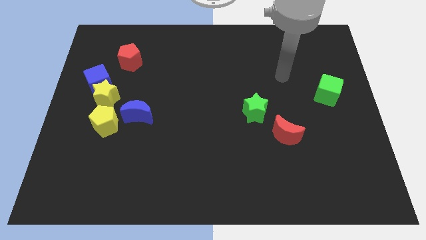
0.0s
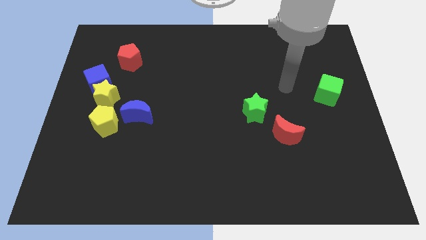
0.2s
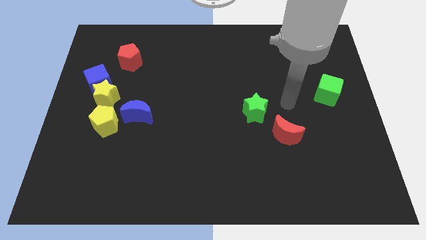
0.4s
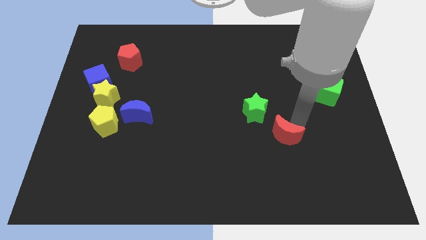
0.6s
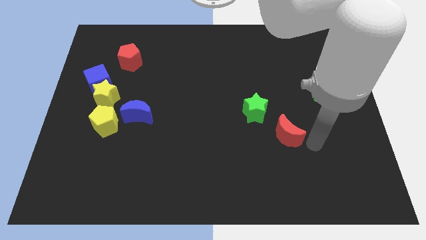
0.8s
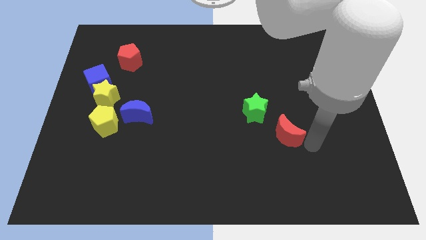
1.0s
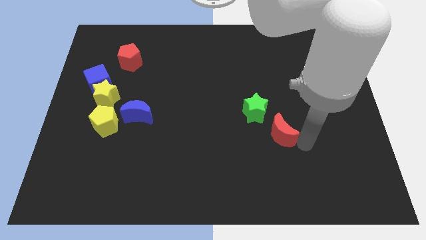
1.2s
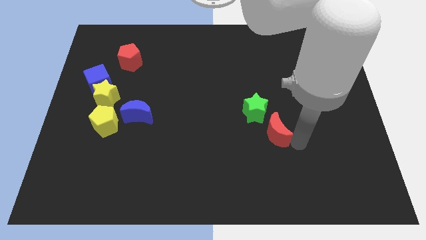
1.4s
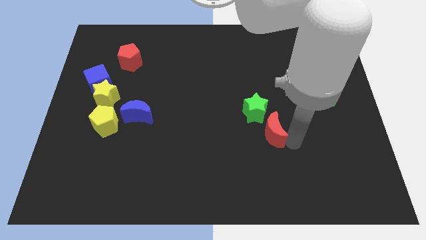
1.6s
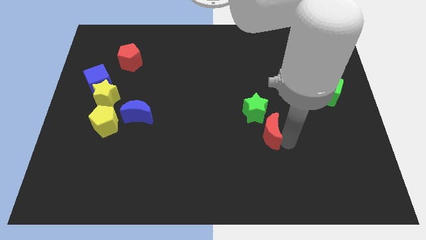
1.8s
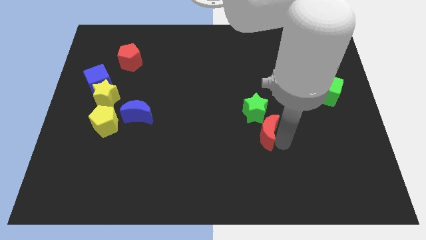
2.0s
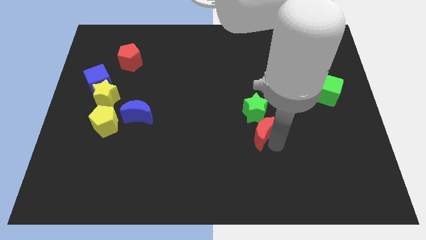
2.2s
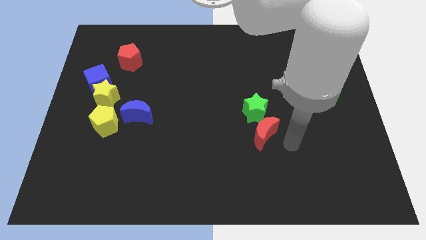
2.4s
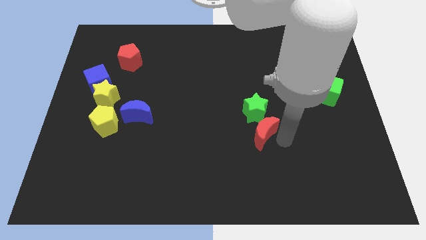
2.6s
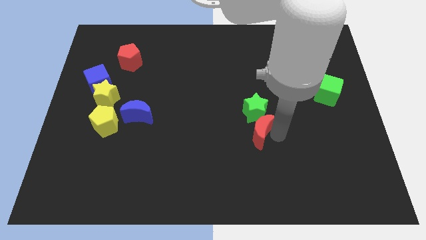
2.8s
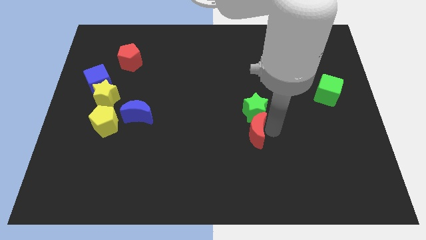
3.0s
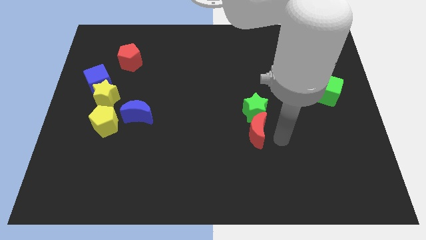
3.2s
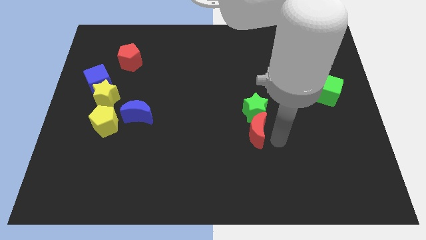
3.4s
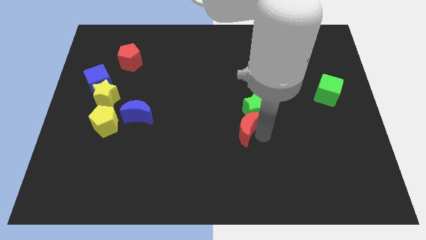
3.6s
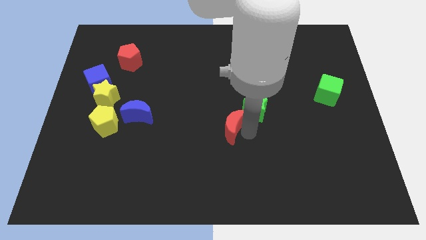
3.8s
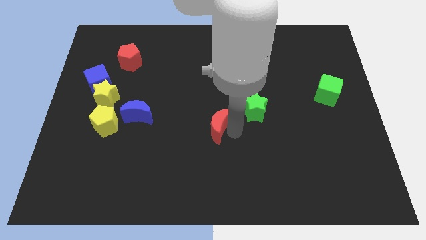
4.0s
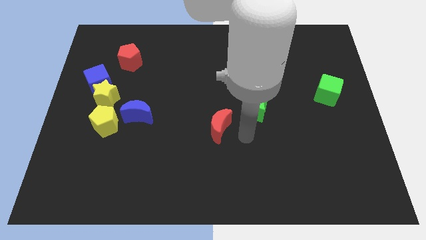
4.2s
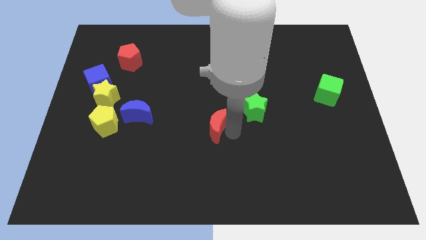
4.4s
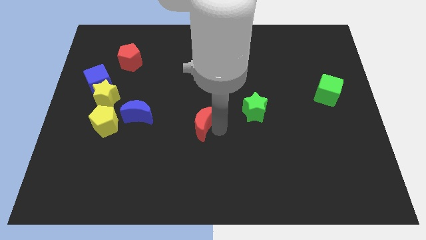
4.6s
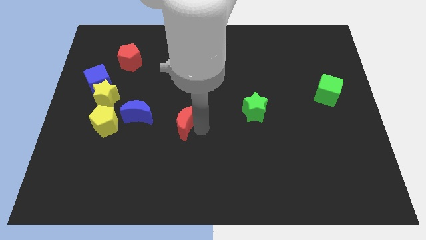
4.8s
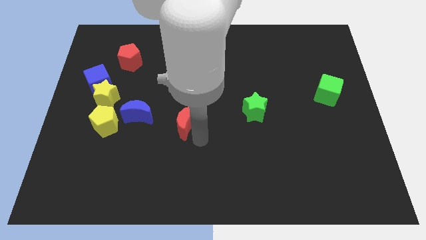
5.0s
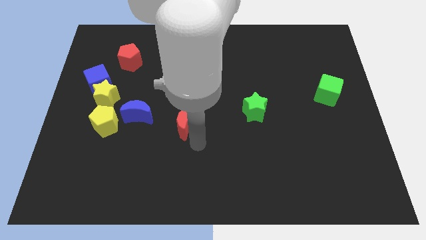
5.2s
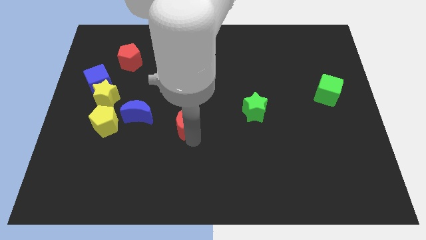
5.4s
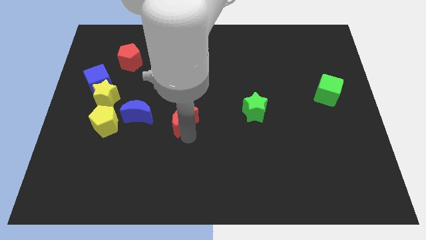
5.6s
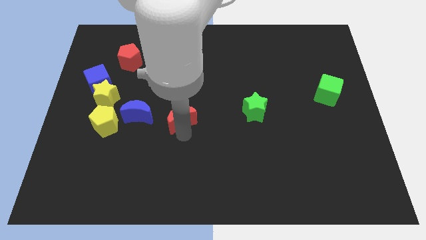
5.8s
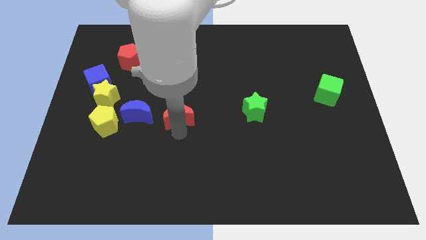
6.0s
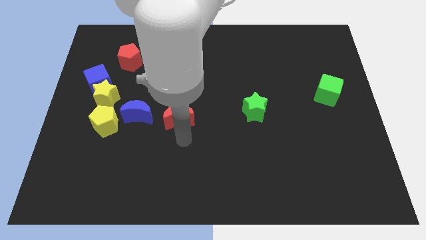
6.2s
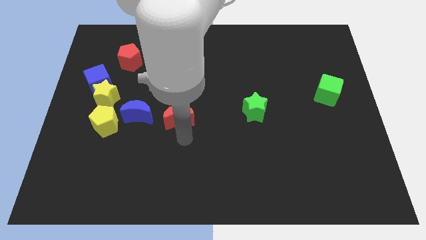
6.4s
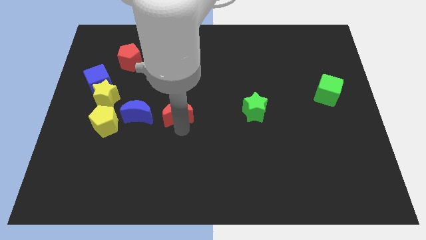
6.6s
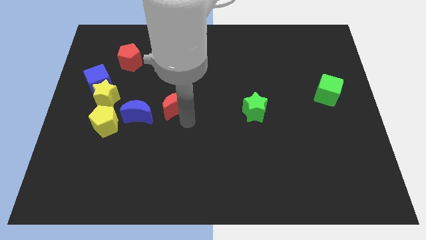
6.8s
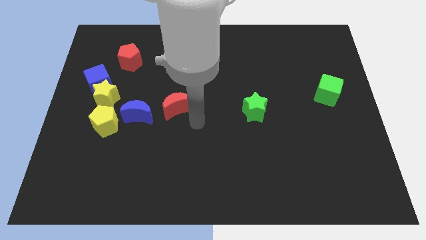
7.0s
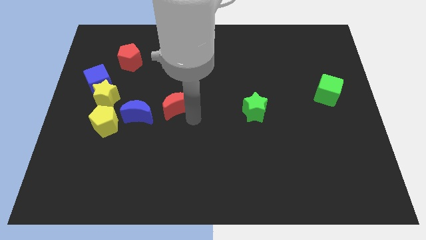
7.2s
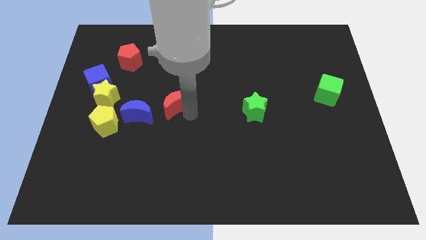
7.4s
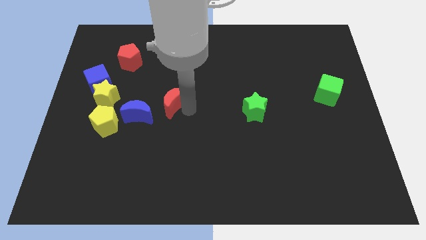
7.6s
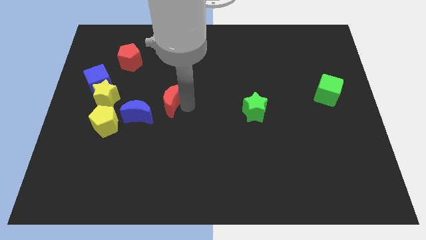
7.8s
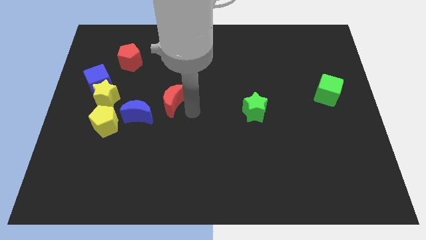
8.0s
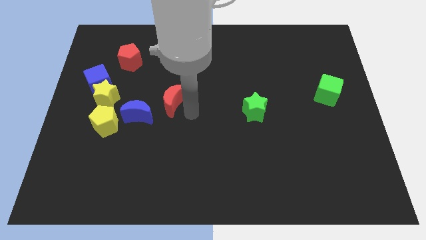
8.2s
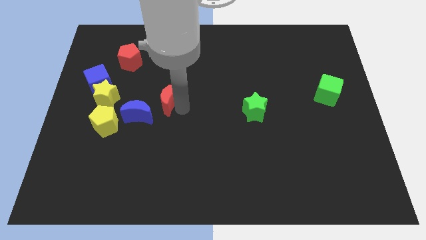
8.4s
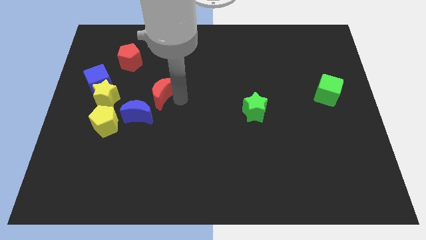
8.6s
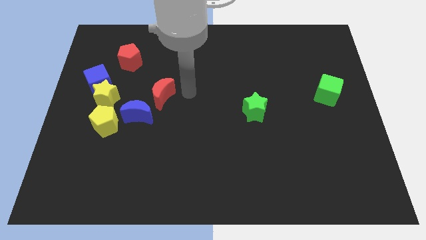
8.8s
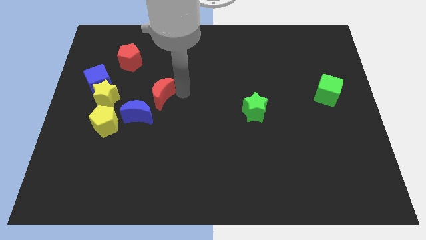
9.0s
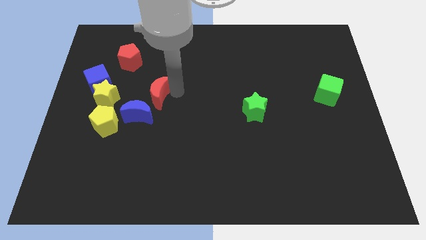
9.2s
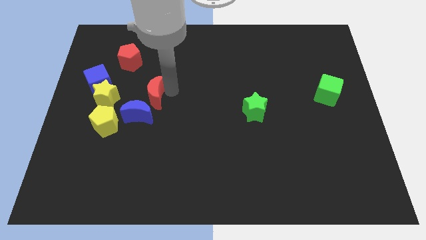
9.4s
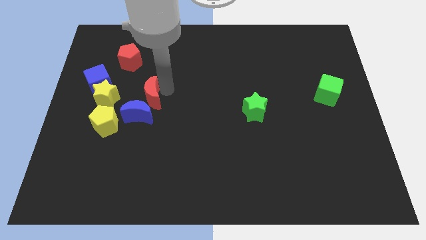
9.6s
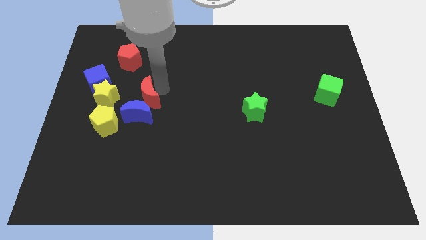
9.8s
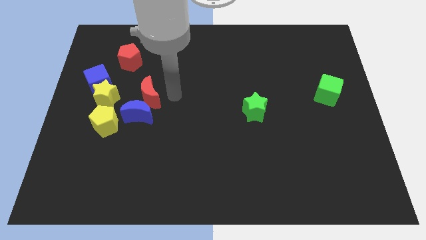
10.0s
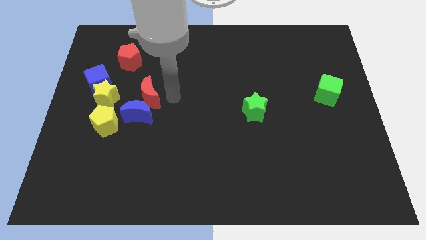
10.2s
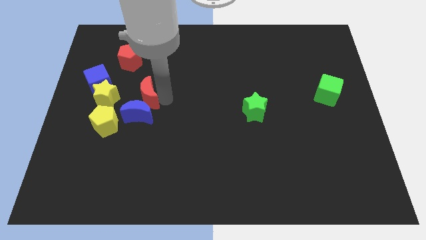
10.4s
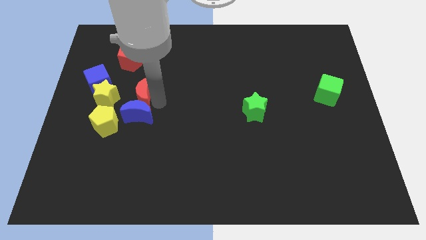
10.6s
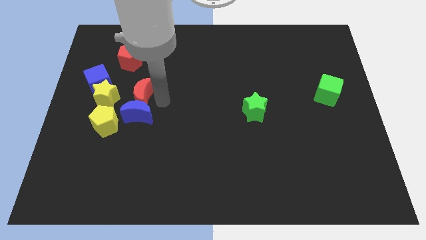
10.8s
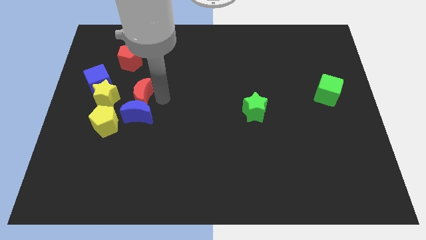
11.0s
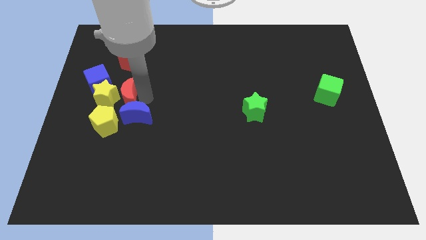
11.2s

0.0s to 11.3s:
push the red moon to the yellow star

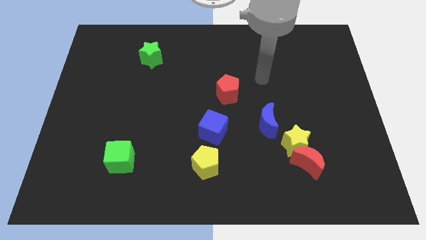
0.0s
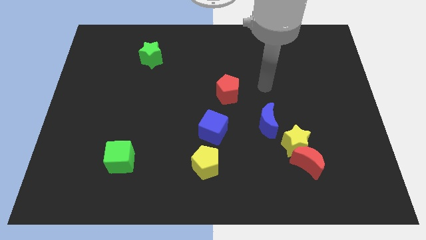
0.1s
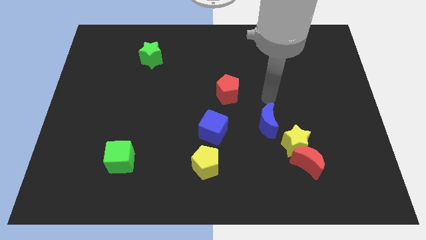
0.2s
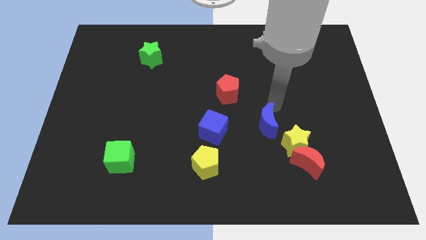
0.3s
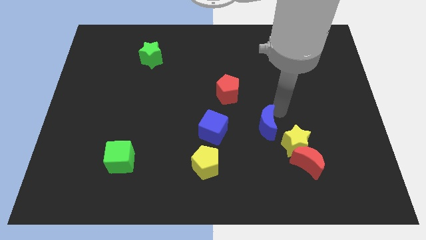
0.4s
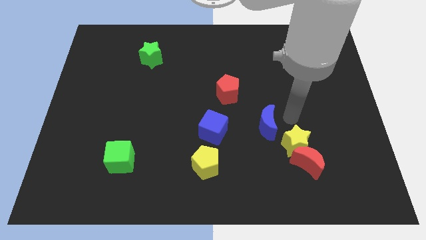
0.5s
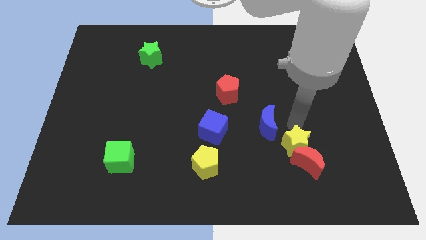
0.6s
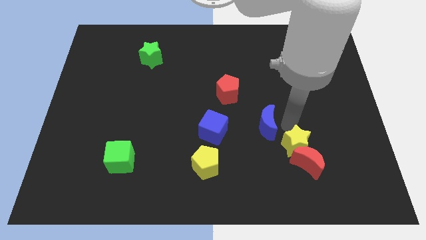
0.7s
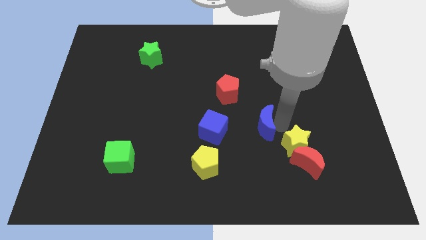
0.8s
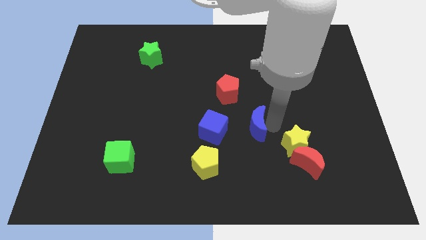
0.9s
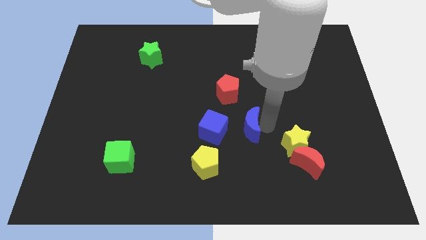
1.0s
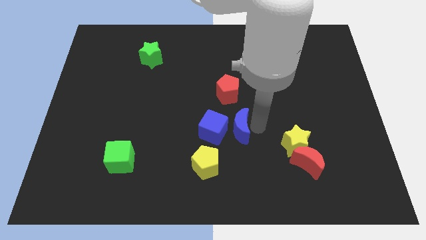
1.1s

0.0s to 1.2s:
push the blue moon to the blue cube

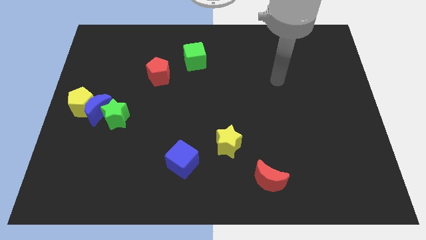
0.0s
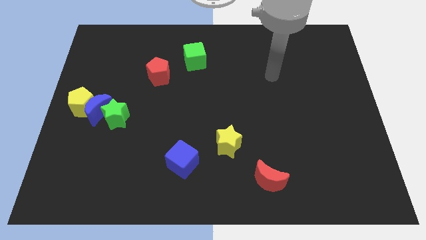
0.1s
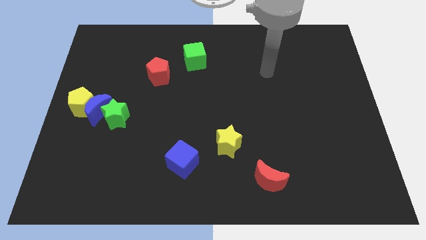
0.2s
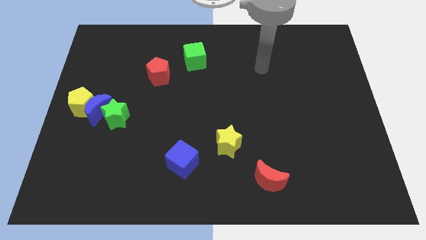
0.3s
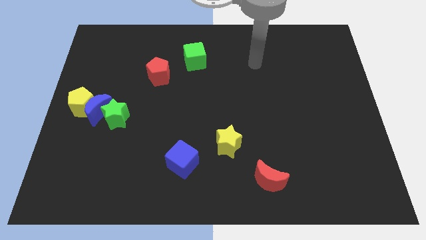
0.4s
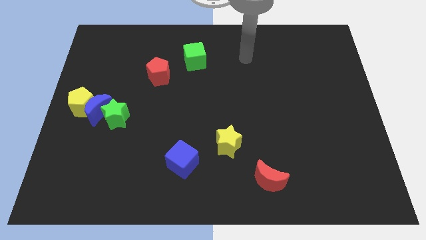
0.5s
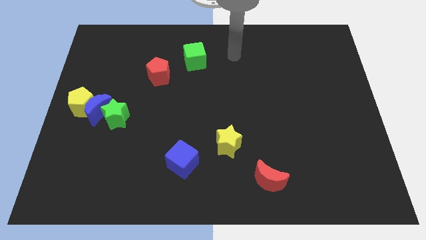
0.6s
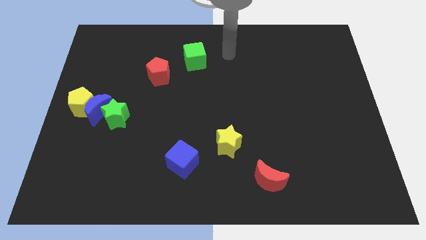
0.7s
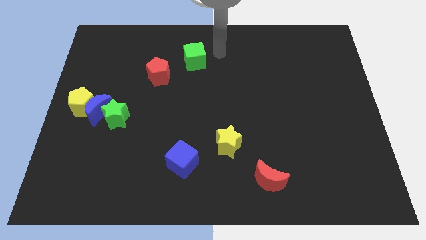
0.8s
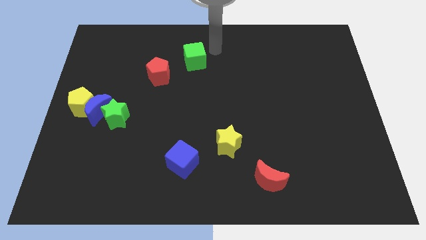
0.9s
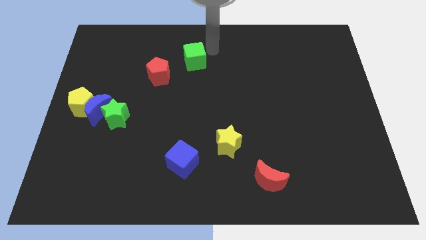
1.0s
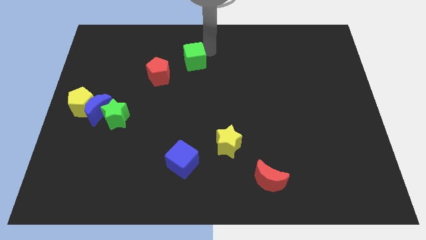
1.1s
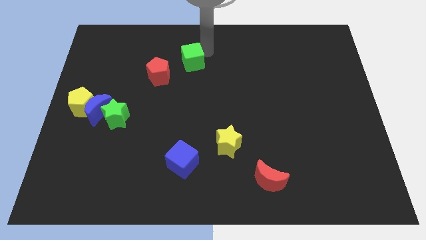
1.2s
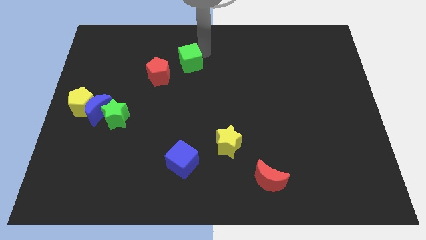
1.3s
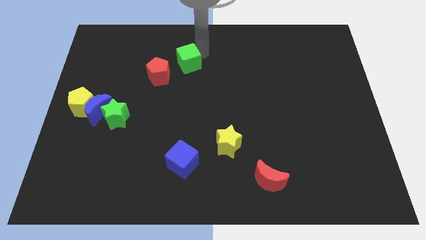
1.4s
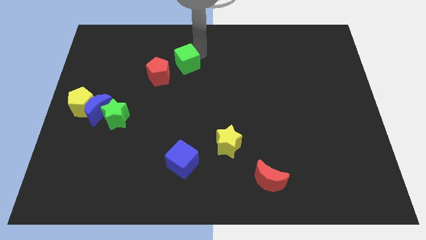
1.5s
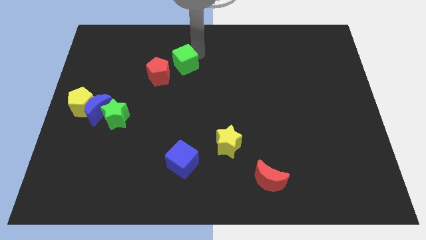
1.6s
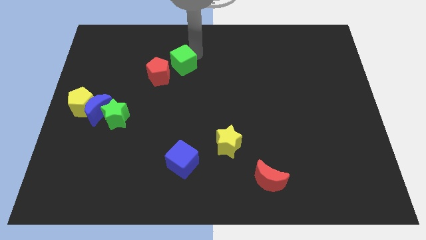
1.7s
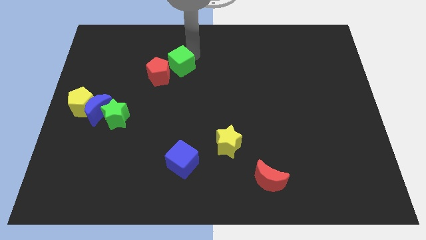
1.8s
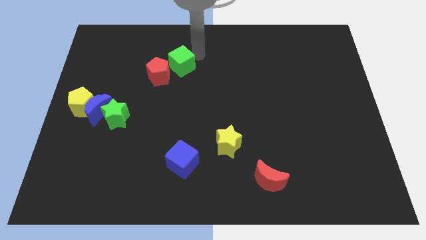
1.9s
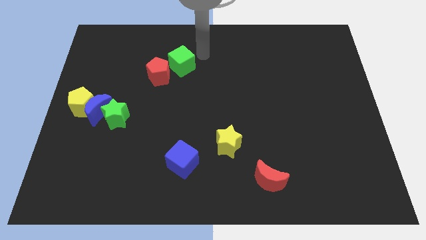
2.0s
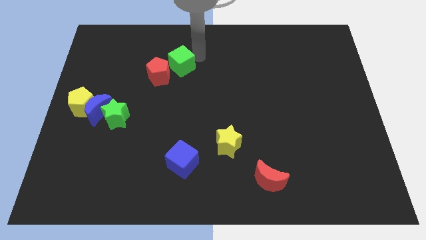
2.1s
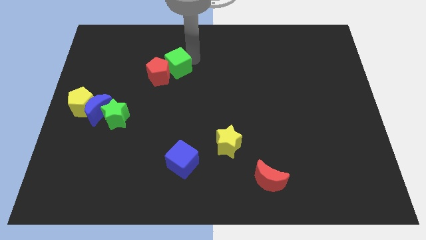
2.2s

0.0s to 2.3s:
move the green cube towards the red pentagon
